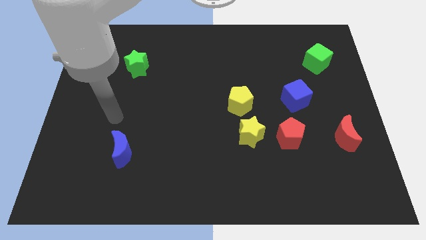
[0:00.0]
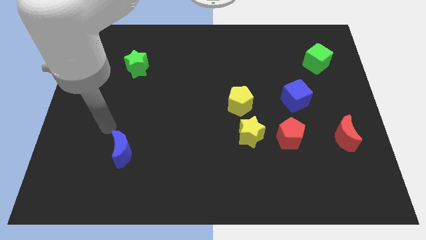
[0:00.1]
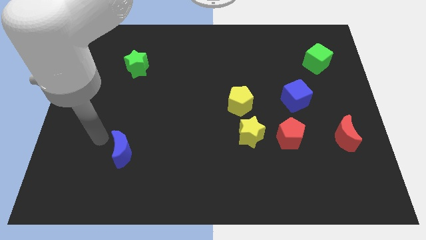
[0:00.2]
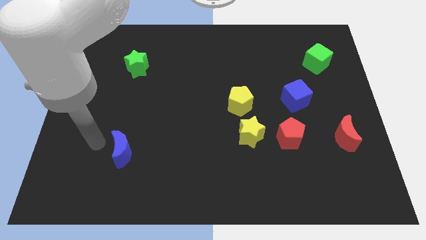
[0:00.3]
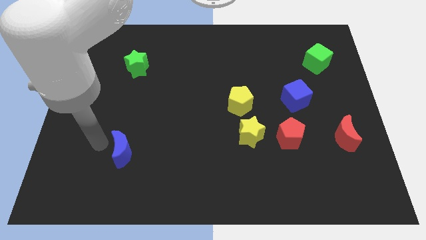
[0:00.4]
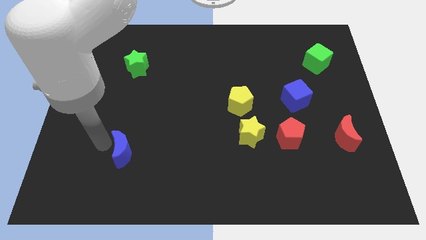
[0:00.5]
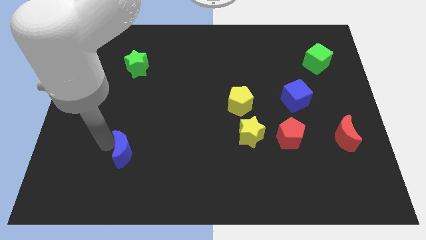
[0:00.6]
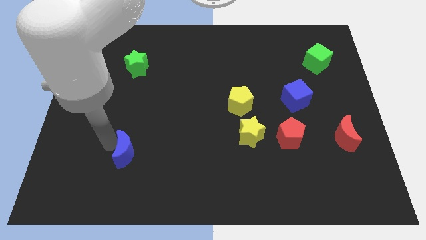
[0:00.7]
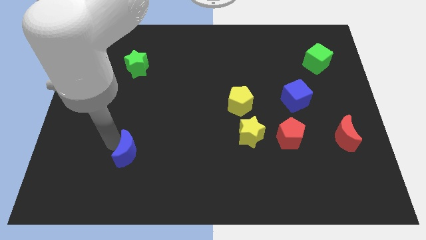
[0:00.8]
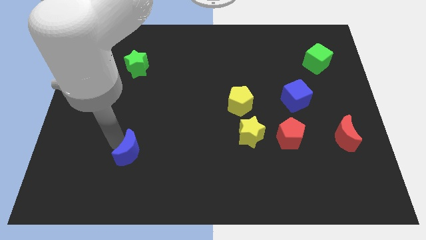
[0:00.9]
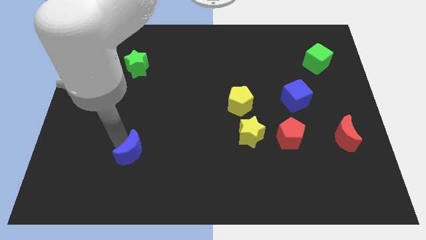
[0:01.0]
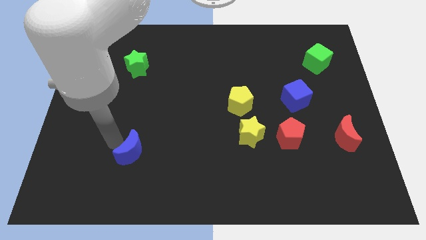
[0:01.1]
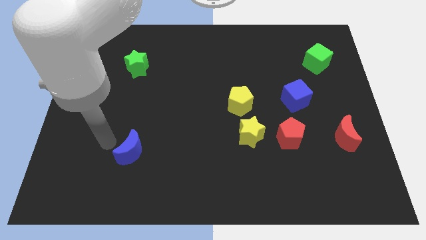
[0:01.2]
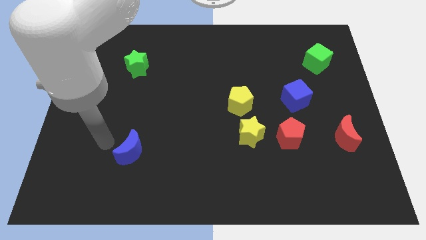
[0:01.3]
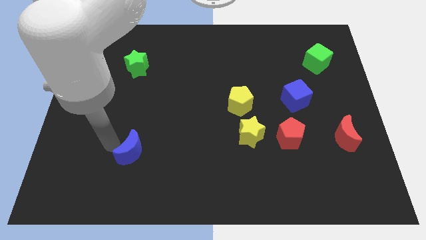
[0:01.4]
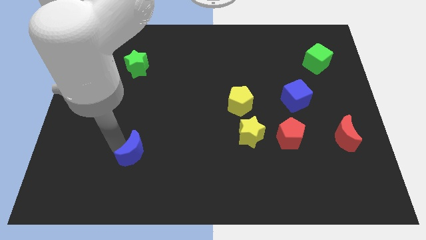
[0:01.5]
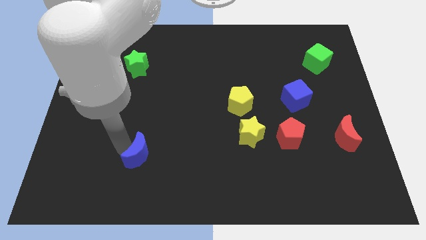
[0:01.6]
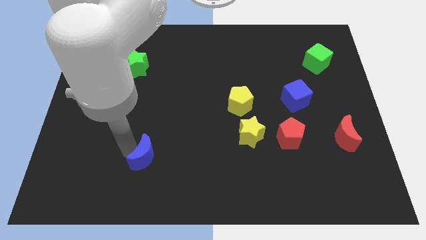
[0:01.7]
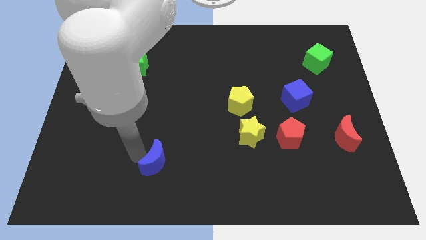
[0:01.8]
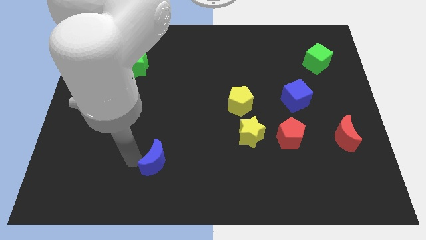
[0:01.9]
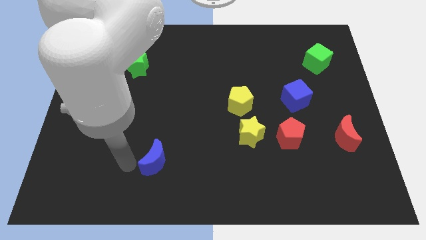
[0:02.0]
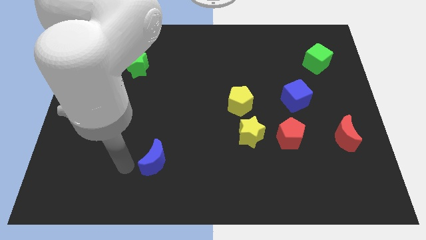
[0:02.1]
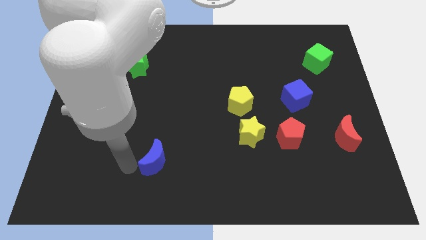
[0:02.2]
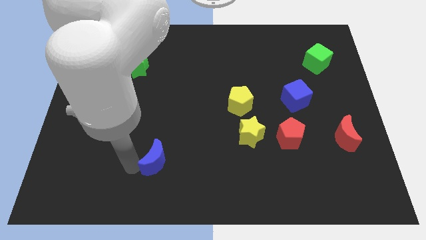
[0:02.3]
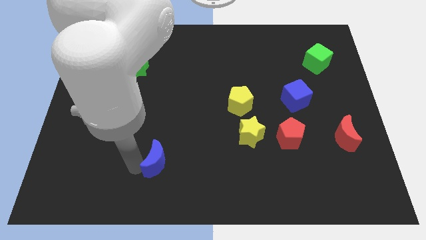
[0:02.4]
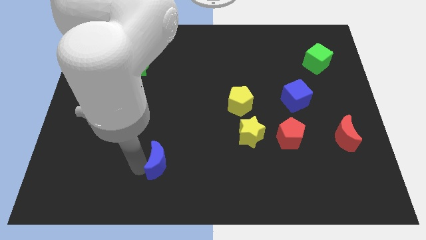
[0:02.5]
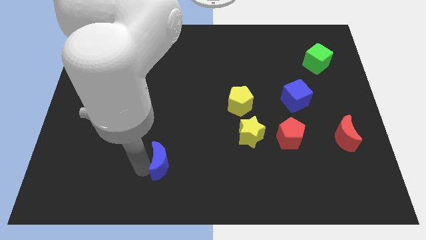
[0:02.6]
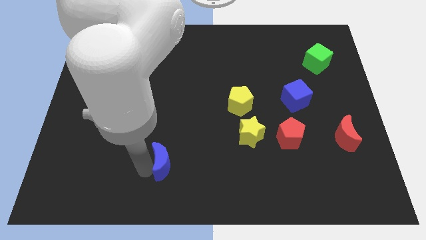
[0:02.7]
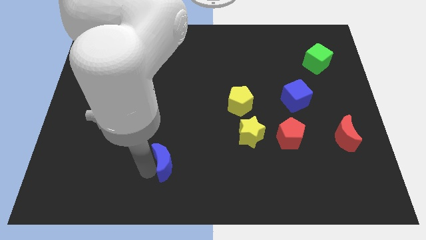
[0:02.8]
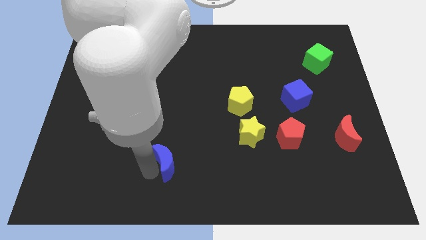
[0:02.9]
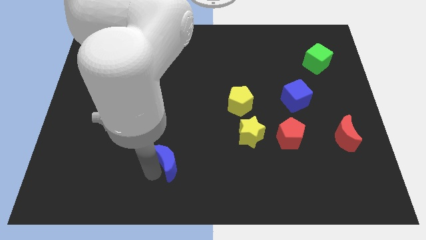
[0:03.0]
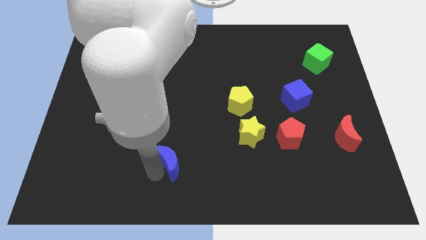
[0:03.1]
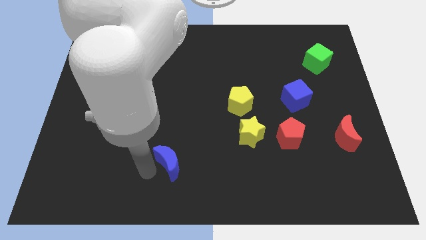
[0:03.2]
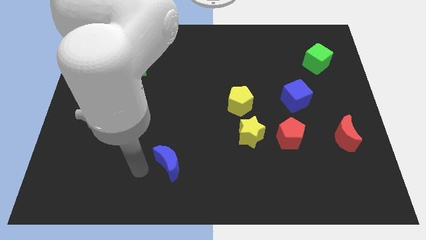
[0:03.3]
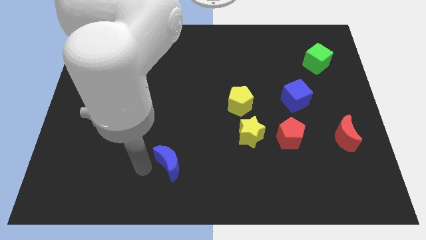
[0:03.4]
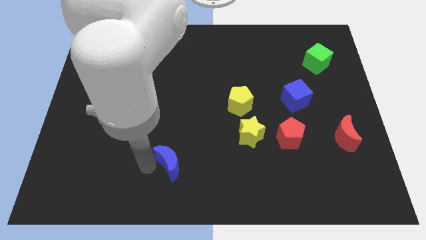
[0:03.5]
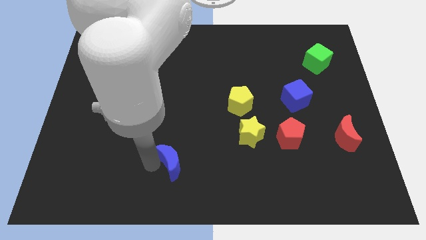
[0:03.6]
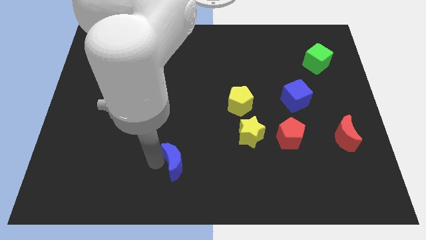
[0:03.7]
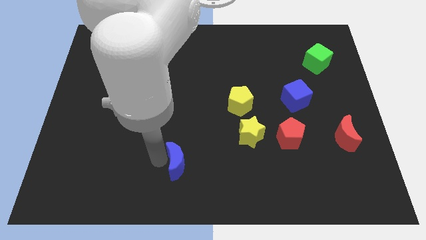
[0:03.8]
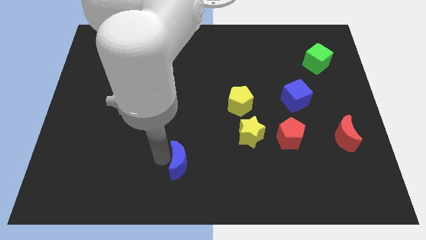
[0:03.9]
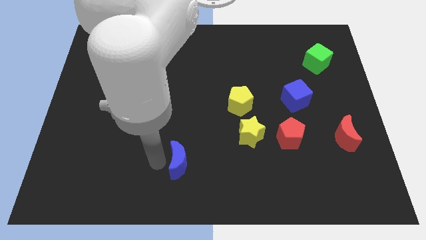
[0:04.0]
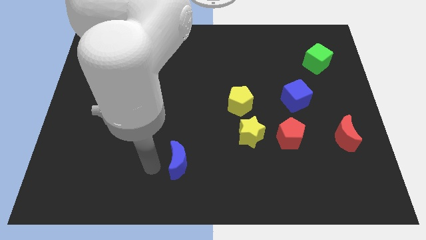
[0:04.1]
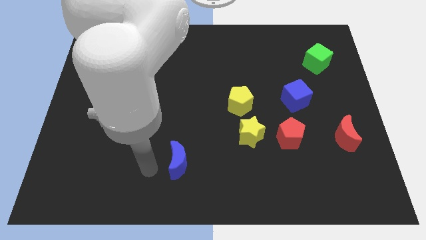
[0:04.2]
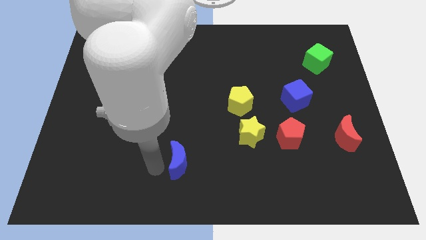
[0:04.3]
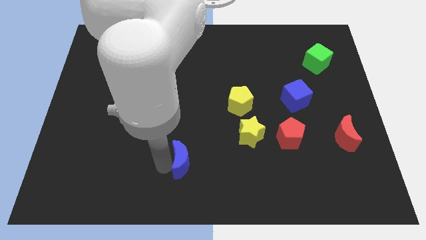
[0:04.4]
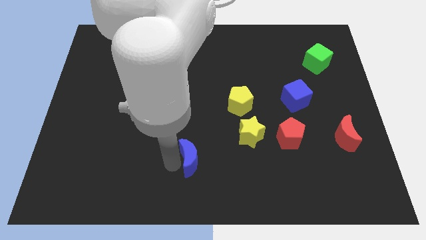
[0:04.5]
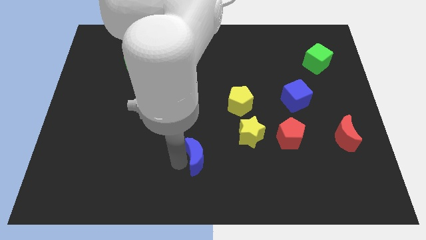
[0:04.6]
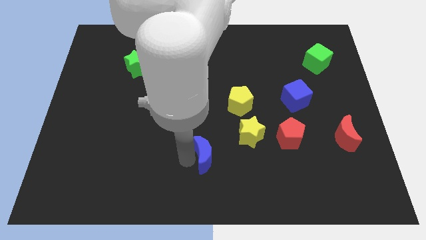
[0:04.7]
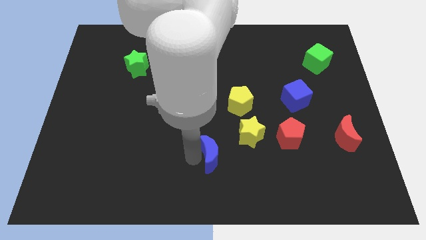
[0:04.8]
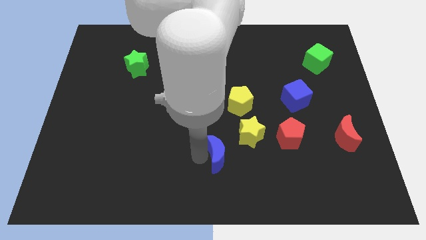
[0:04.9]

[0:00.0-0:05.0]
move the blue moon to the right

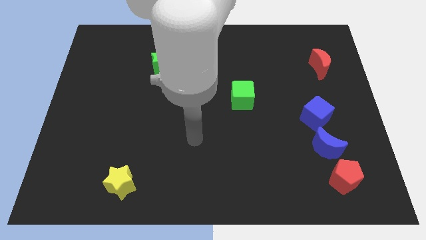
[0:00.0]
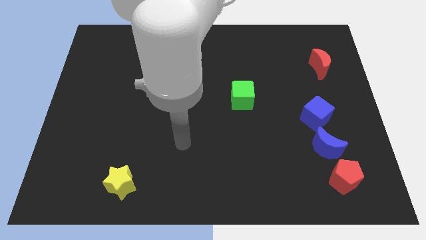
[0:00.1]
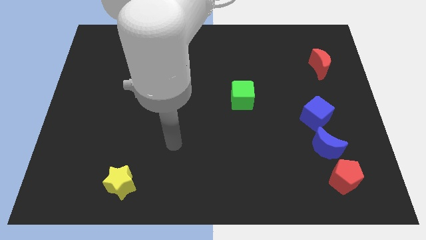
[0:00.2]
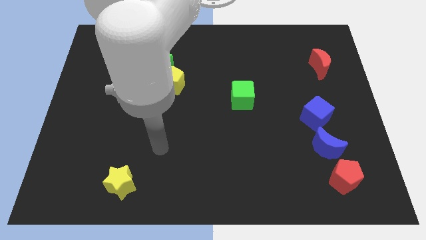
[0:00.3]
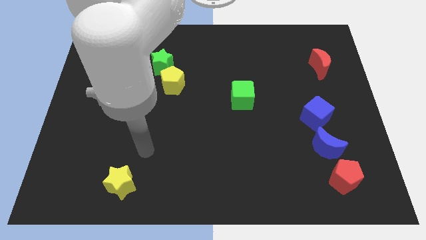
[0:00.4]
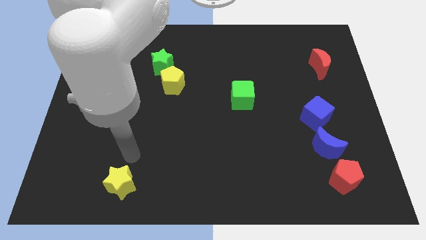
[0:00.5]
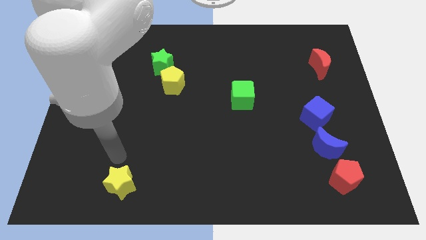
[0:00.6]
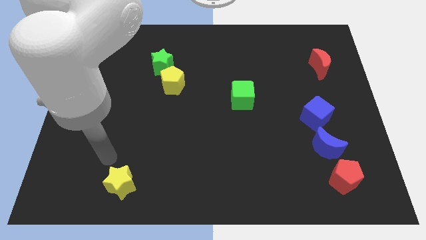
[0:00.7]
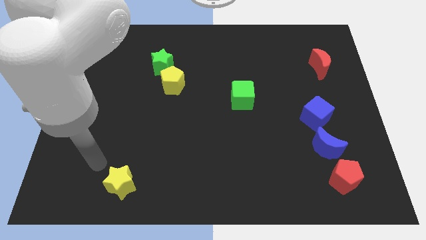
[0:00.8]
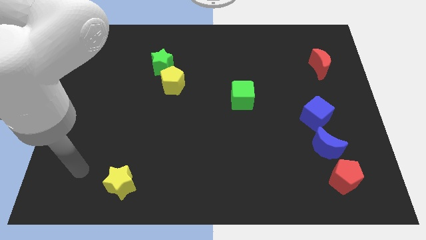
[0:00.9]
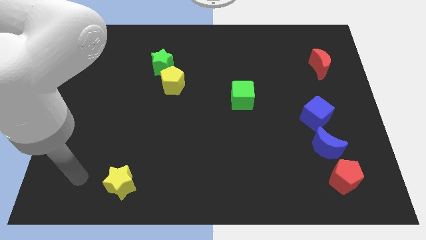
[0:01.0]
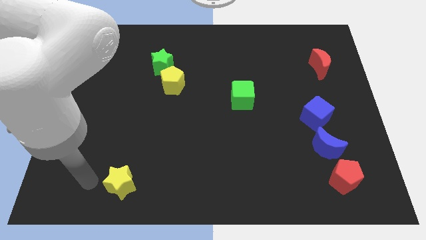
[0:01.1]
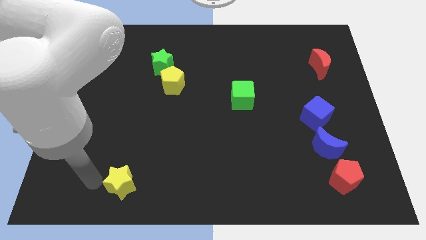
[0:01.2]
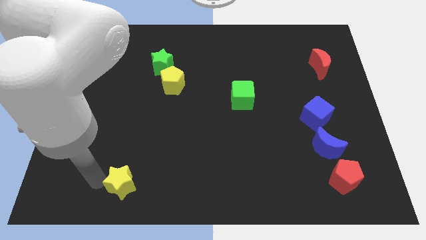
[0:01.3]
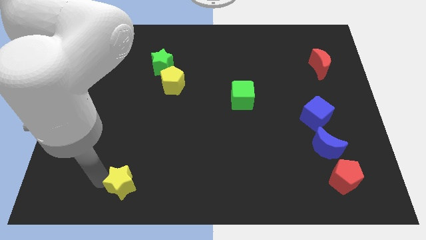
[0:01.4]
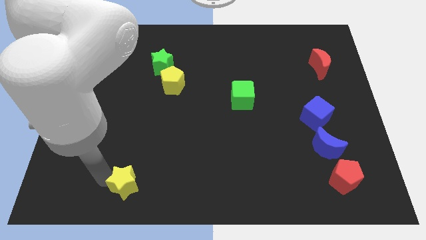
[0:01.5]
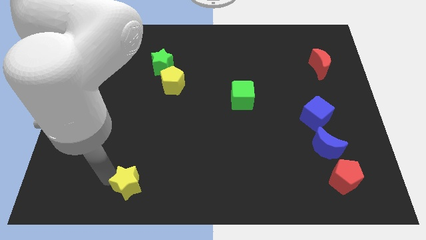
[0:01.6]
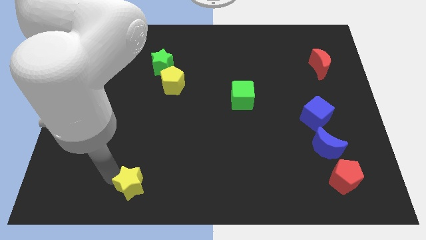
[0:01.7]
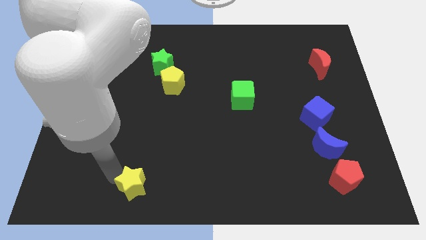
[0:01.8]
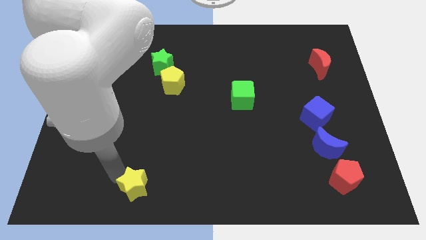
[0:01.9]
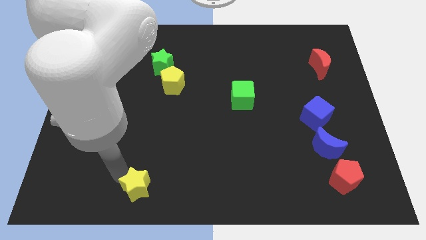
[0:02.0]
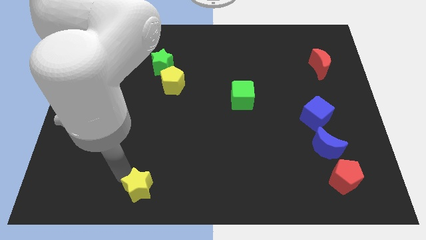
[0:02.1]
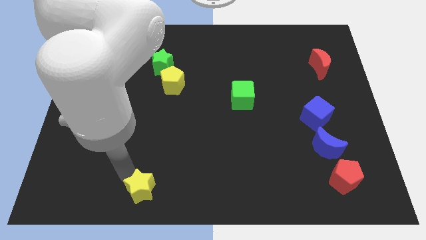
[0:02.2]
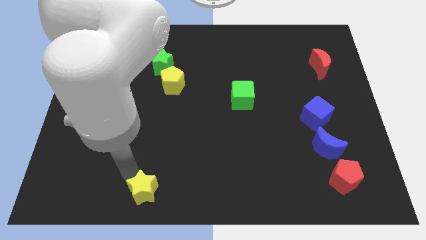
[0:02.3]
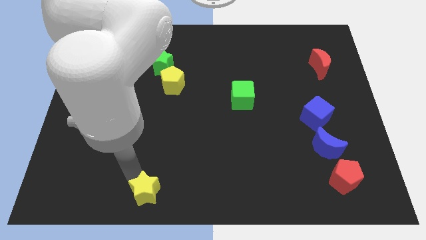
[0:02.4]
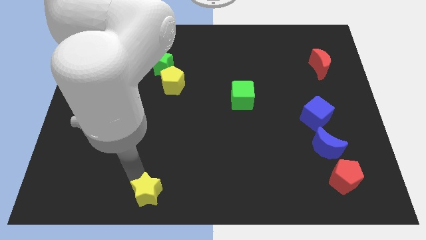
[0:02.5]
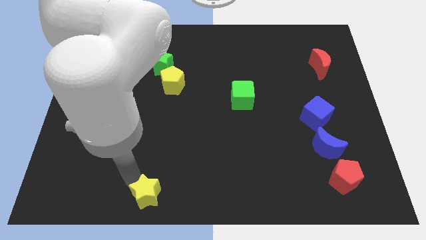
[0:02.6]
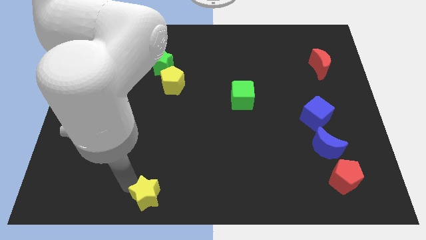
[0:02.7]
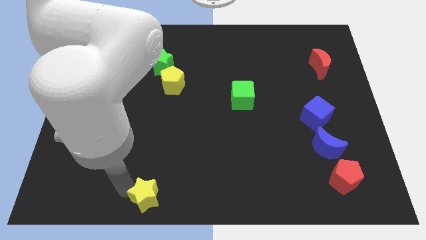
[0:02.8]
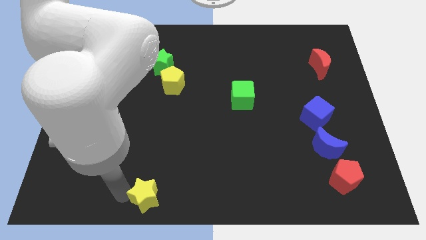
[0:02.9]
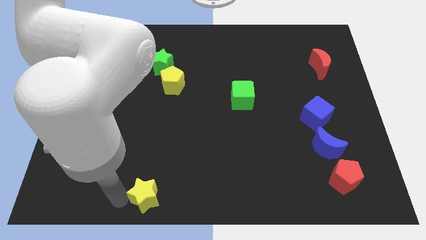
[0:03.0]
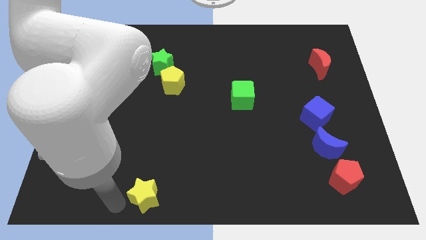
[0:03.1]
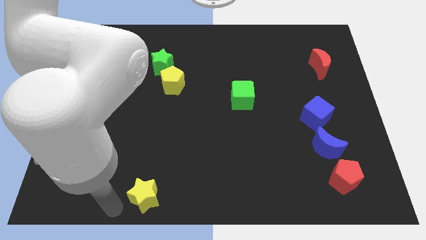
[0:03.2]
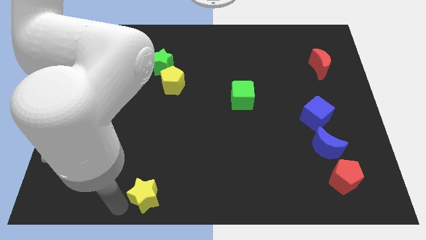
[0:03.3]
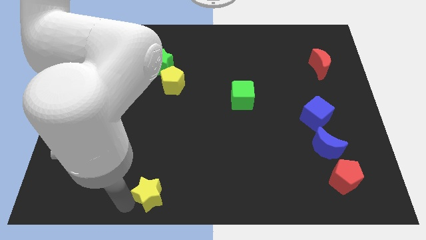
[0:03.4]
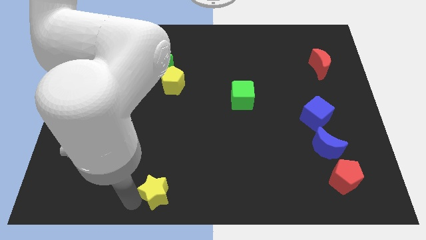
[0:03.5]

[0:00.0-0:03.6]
slightly push the yellow star to the right
